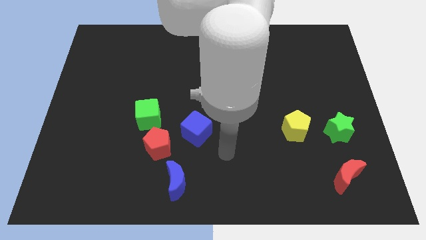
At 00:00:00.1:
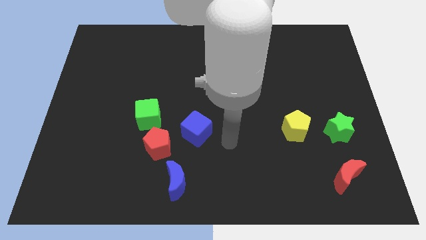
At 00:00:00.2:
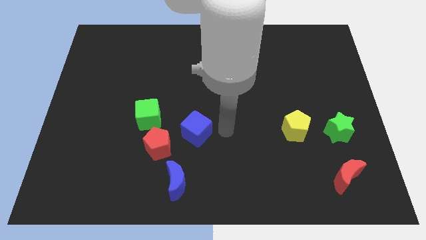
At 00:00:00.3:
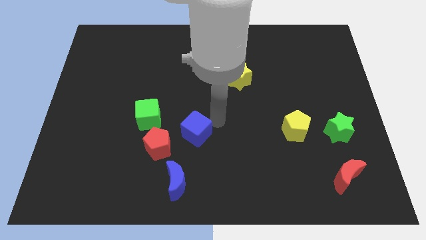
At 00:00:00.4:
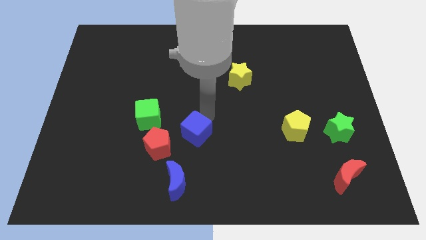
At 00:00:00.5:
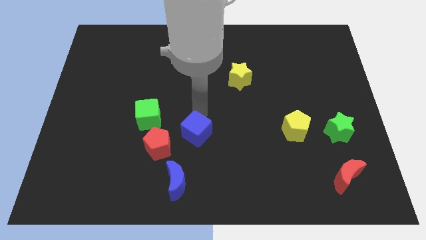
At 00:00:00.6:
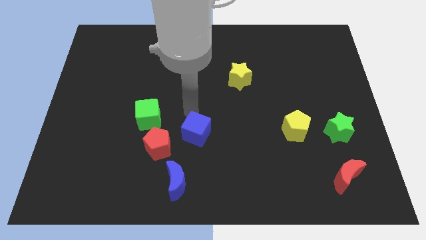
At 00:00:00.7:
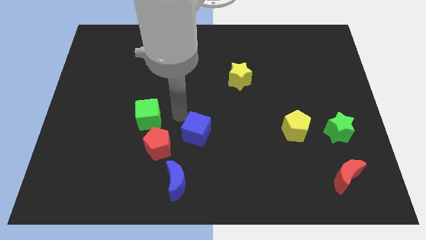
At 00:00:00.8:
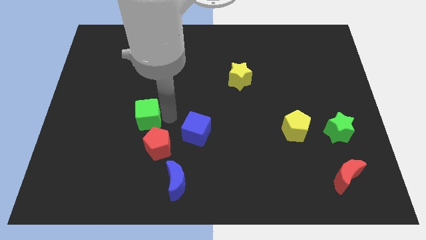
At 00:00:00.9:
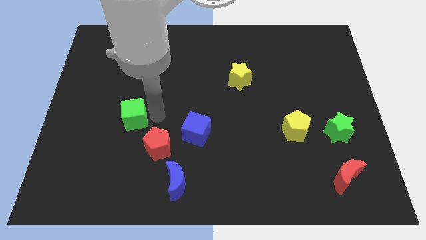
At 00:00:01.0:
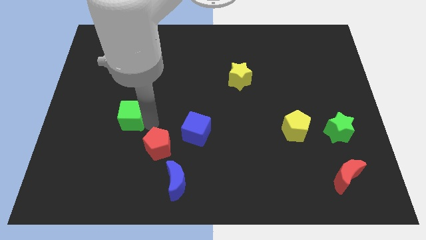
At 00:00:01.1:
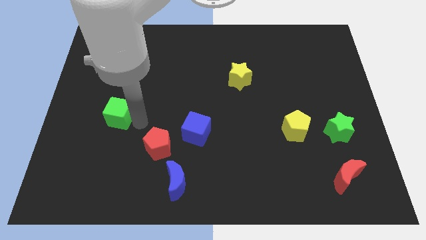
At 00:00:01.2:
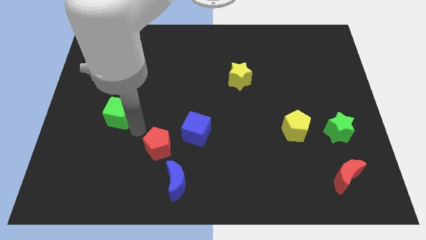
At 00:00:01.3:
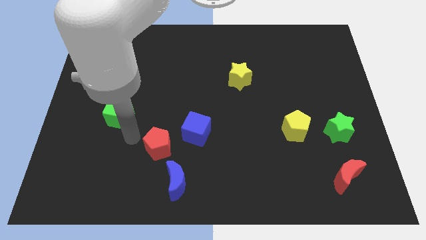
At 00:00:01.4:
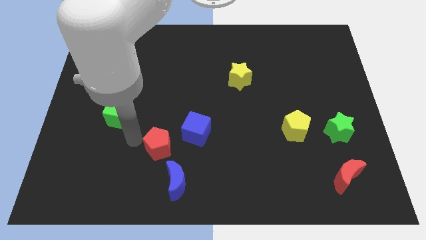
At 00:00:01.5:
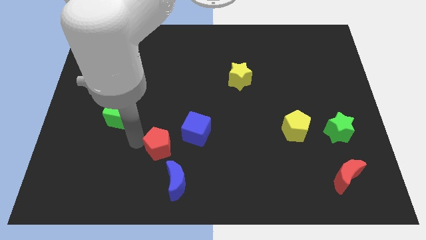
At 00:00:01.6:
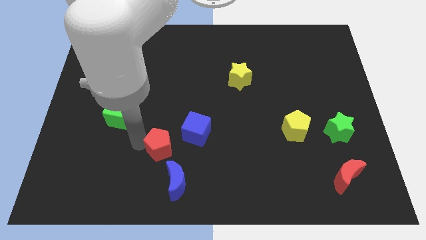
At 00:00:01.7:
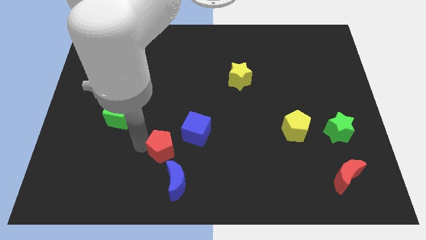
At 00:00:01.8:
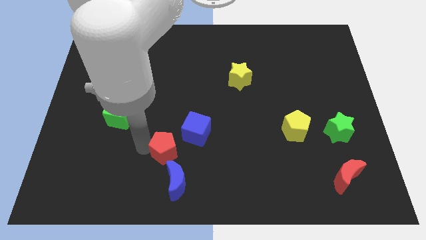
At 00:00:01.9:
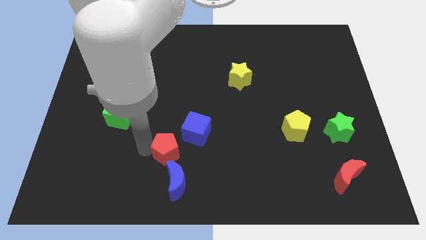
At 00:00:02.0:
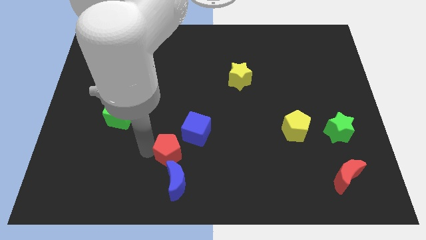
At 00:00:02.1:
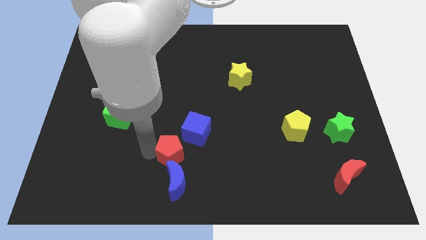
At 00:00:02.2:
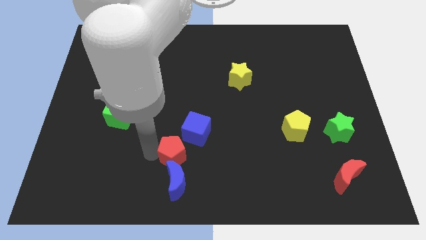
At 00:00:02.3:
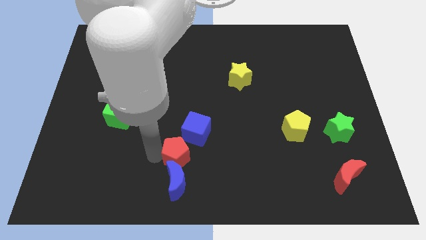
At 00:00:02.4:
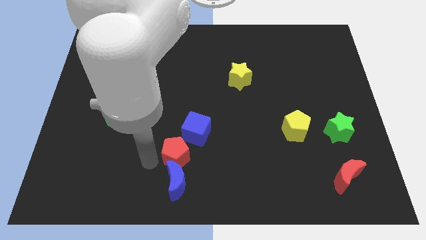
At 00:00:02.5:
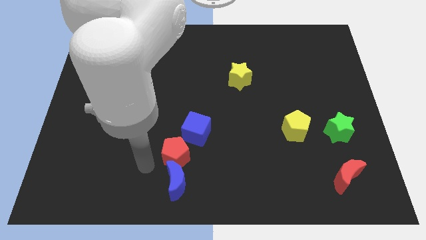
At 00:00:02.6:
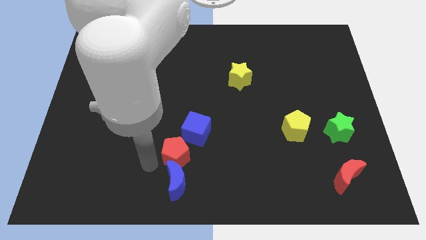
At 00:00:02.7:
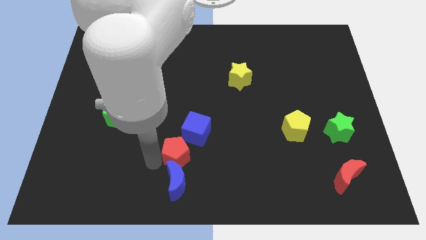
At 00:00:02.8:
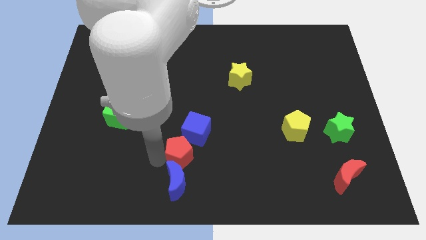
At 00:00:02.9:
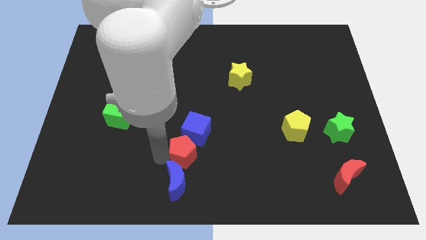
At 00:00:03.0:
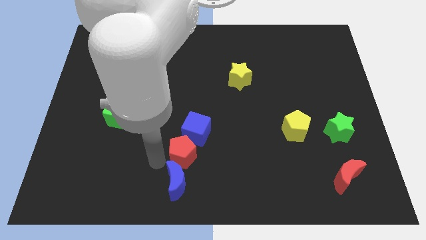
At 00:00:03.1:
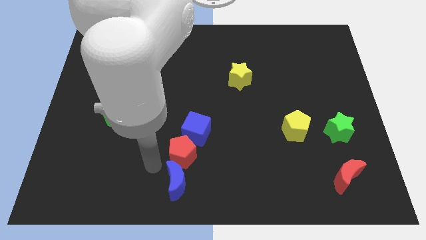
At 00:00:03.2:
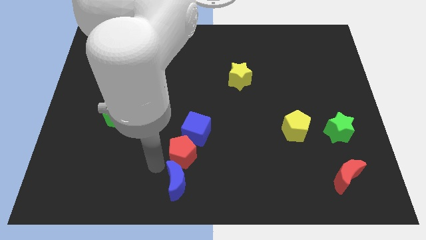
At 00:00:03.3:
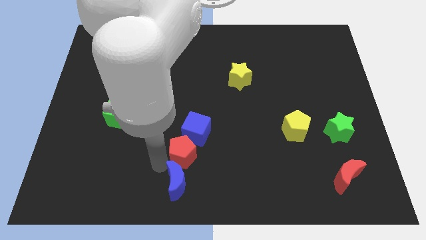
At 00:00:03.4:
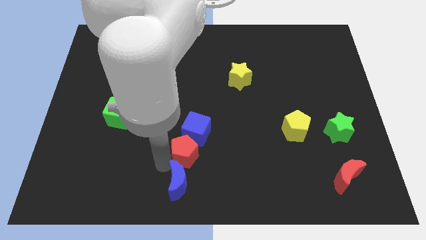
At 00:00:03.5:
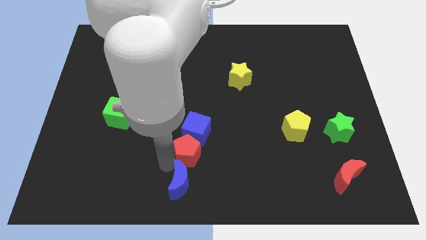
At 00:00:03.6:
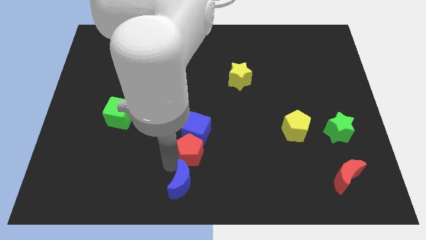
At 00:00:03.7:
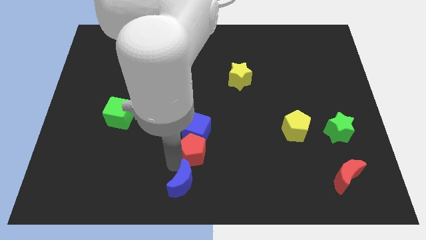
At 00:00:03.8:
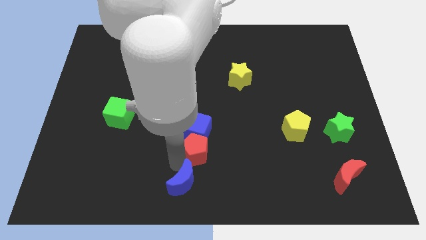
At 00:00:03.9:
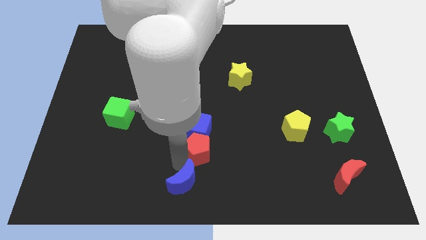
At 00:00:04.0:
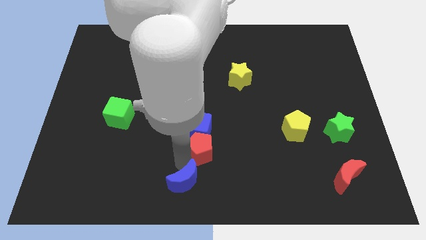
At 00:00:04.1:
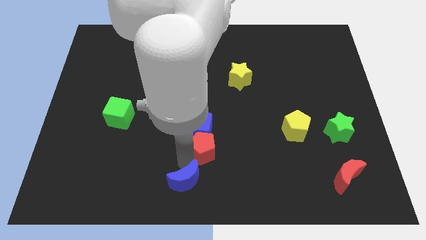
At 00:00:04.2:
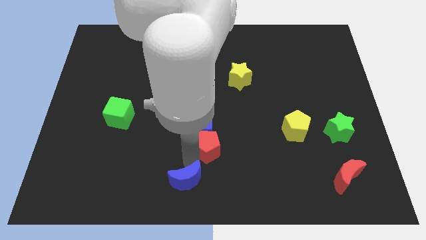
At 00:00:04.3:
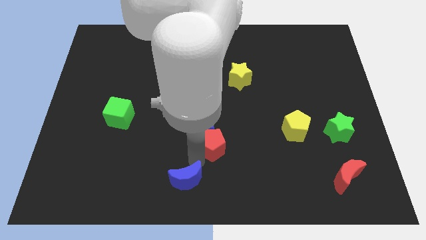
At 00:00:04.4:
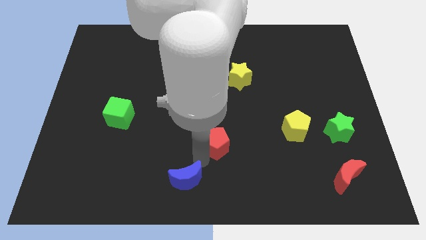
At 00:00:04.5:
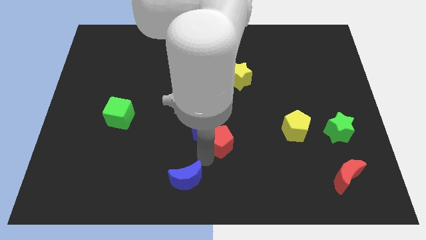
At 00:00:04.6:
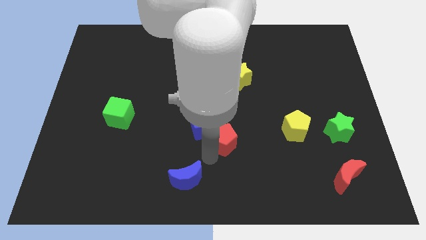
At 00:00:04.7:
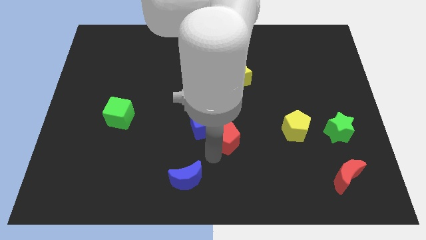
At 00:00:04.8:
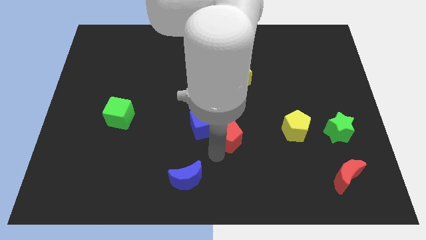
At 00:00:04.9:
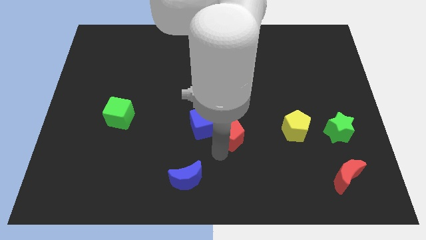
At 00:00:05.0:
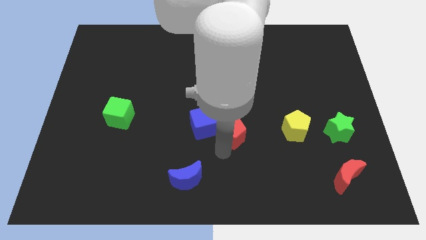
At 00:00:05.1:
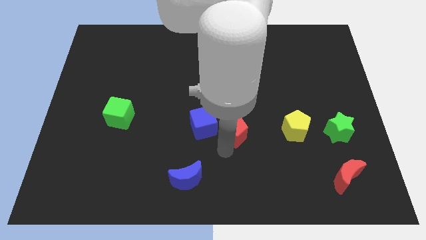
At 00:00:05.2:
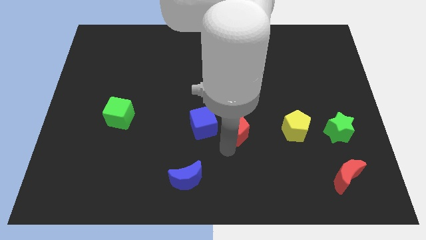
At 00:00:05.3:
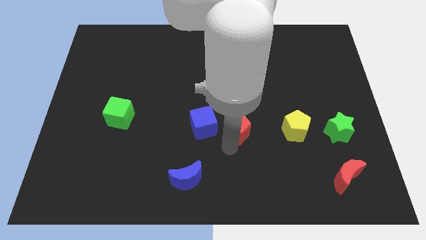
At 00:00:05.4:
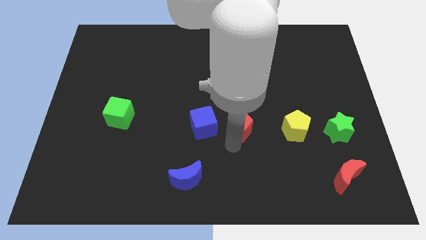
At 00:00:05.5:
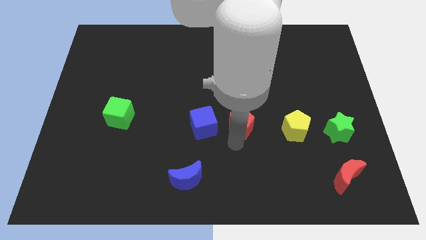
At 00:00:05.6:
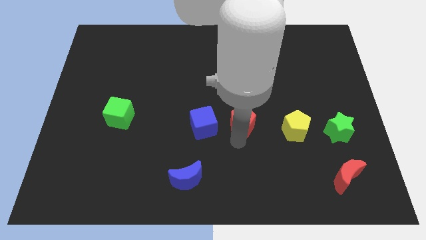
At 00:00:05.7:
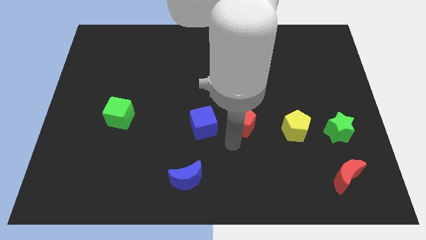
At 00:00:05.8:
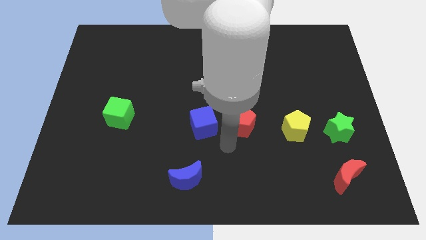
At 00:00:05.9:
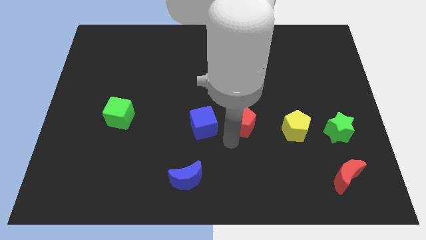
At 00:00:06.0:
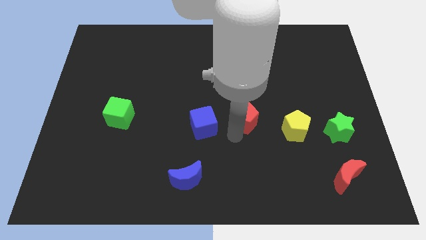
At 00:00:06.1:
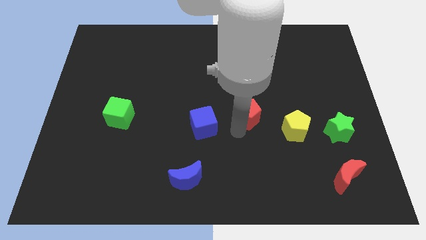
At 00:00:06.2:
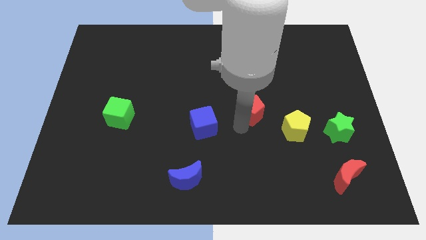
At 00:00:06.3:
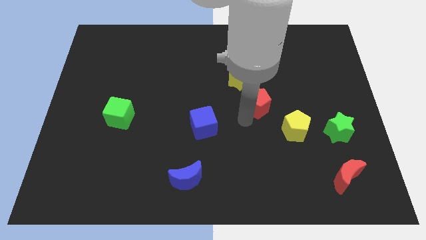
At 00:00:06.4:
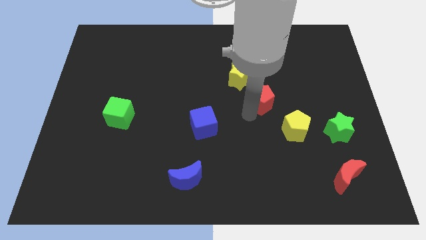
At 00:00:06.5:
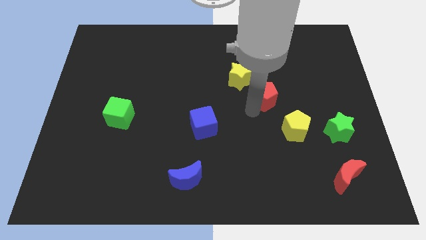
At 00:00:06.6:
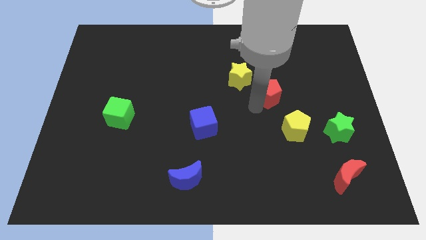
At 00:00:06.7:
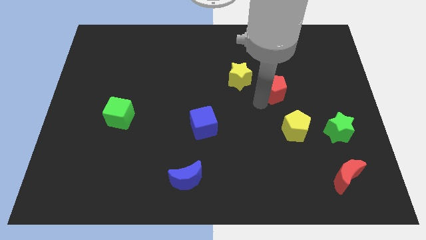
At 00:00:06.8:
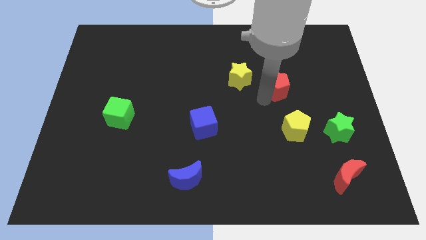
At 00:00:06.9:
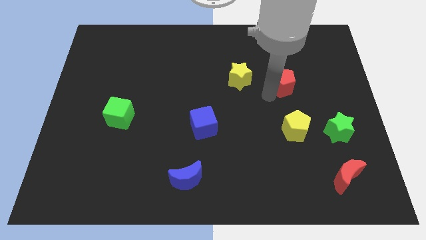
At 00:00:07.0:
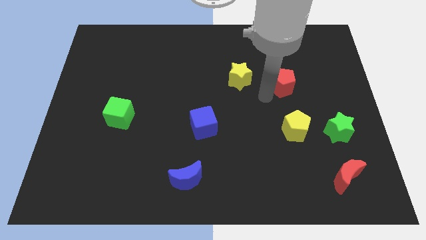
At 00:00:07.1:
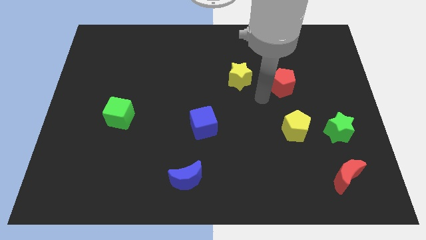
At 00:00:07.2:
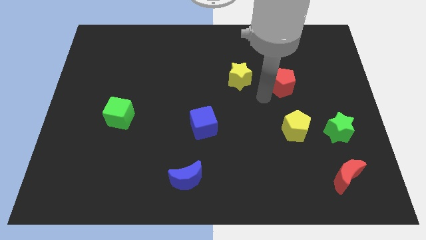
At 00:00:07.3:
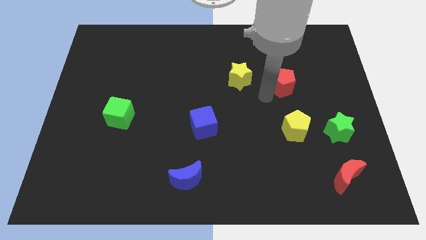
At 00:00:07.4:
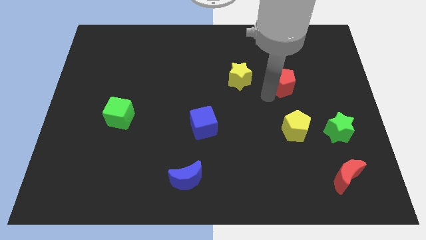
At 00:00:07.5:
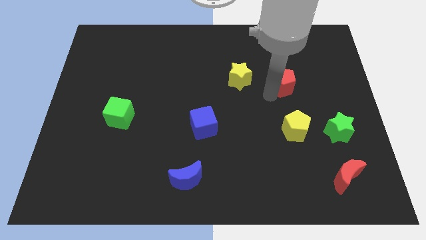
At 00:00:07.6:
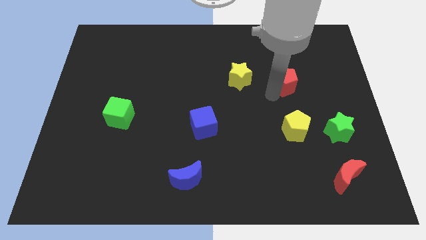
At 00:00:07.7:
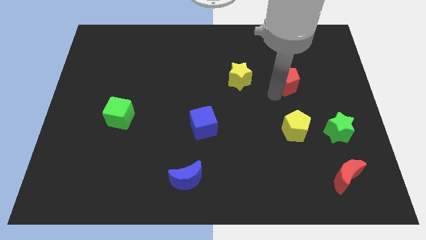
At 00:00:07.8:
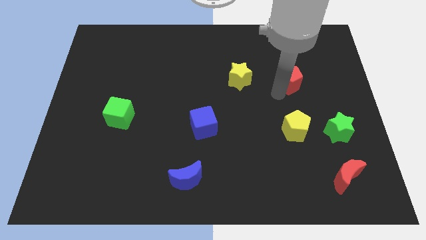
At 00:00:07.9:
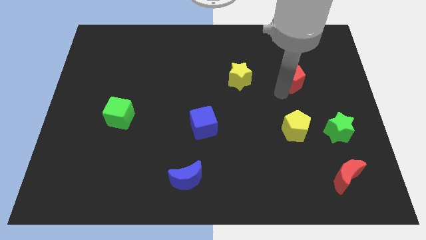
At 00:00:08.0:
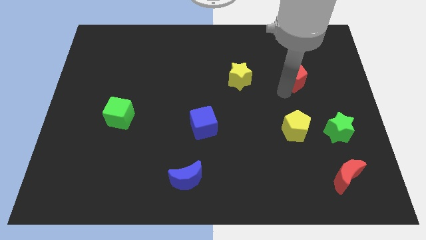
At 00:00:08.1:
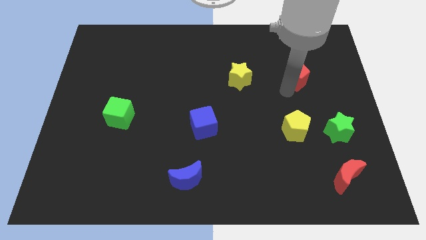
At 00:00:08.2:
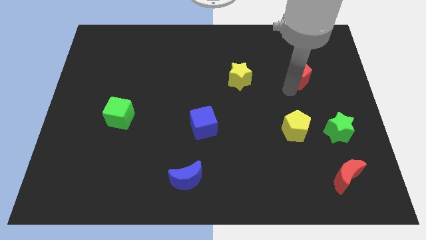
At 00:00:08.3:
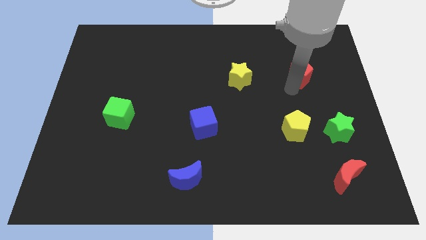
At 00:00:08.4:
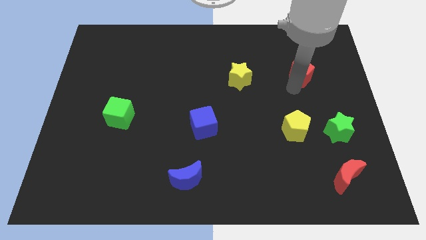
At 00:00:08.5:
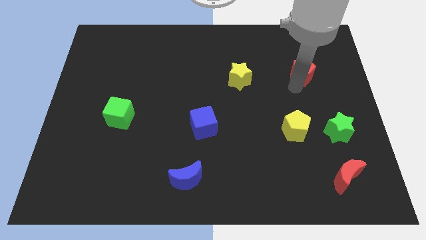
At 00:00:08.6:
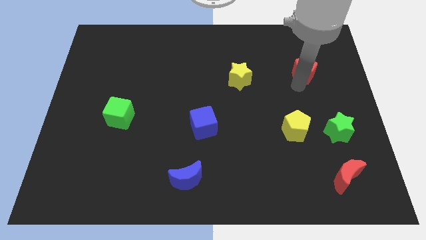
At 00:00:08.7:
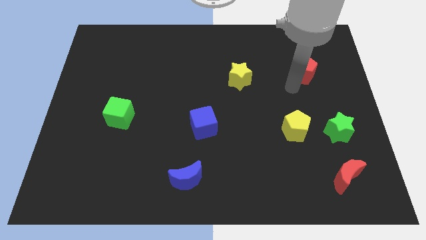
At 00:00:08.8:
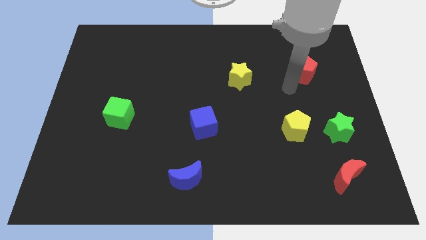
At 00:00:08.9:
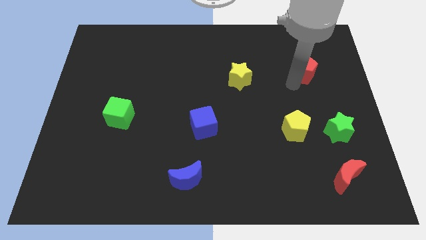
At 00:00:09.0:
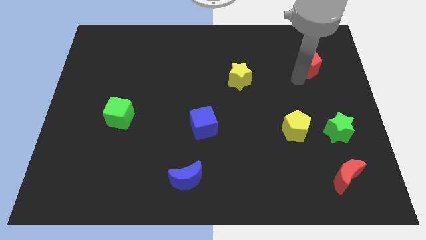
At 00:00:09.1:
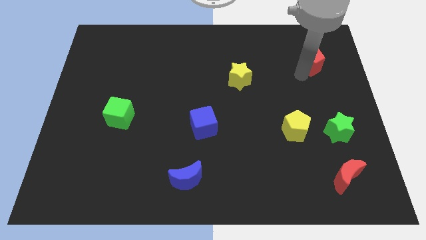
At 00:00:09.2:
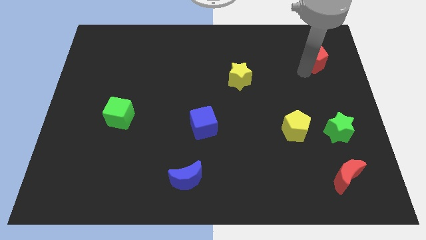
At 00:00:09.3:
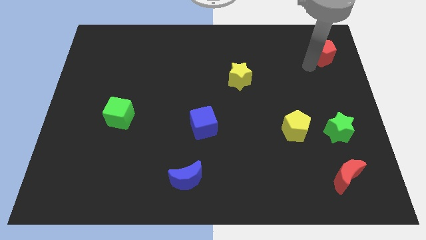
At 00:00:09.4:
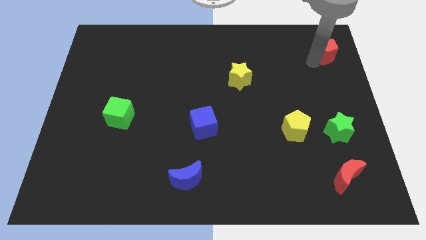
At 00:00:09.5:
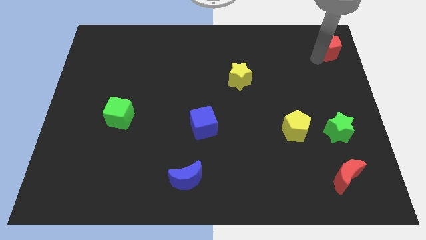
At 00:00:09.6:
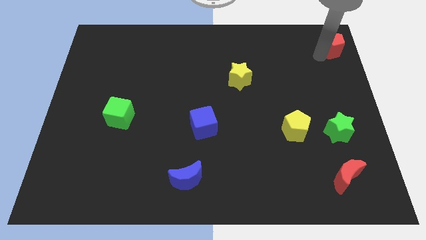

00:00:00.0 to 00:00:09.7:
push the red pentagon to the top right of the board
